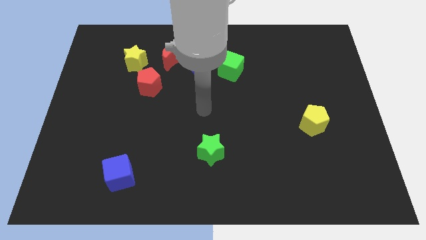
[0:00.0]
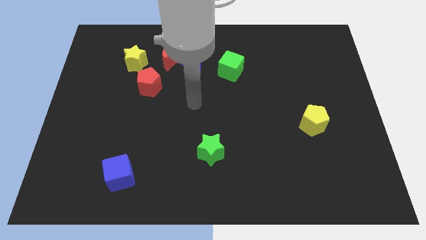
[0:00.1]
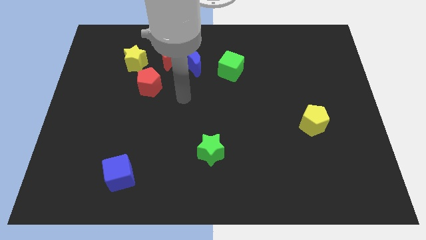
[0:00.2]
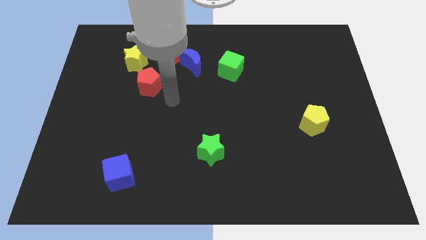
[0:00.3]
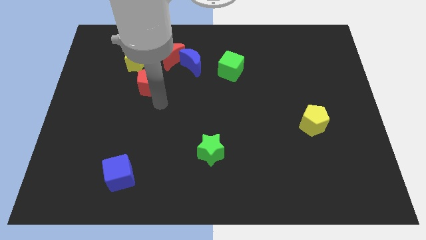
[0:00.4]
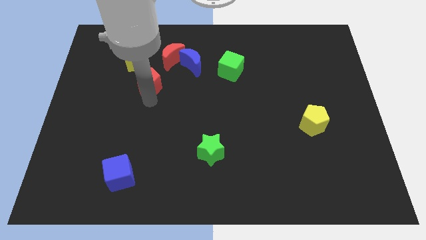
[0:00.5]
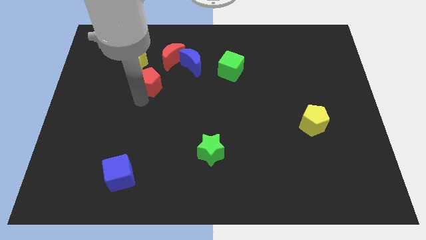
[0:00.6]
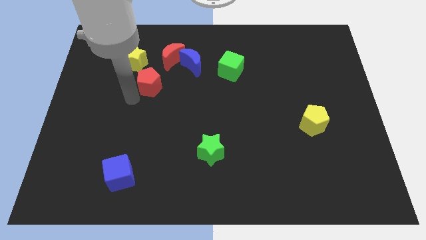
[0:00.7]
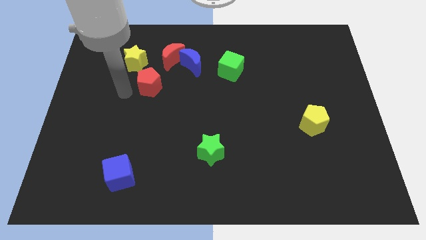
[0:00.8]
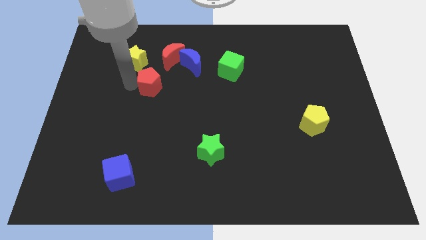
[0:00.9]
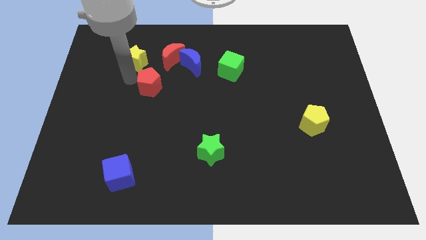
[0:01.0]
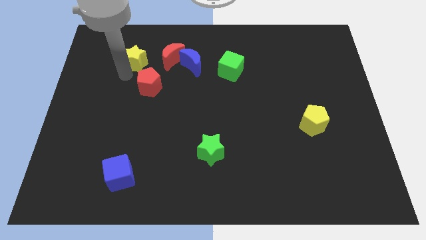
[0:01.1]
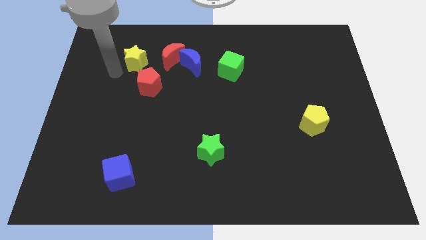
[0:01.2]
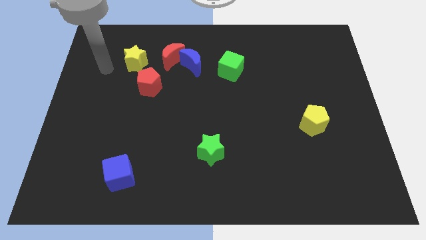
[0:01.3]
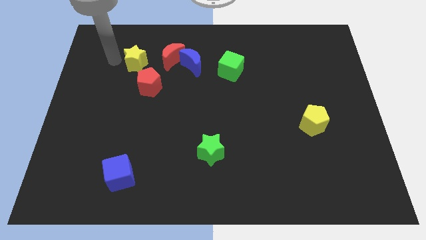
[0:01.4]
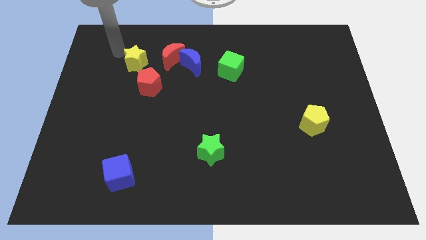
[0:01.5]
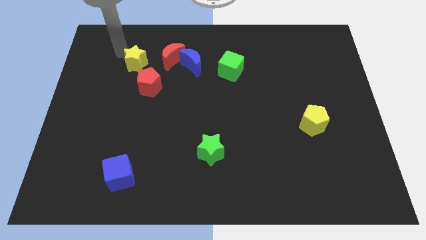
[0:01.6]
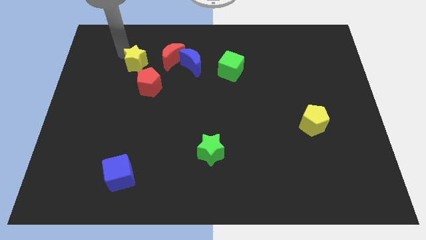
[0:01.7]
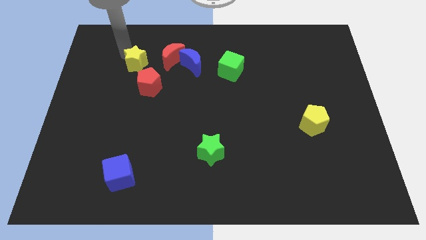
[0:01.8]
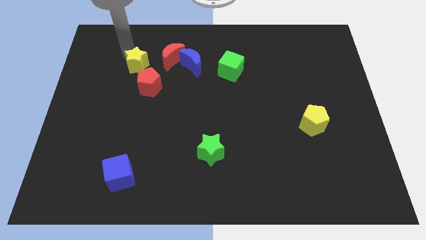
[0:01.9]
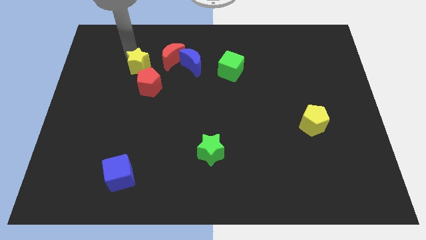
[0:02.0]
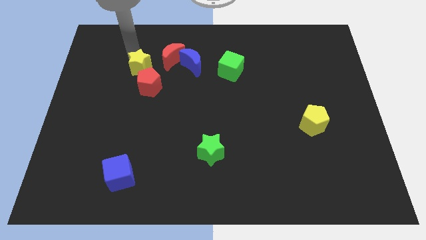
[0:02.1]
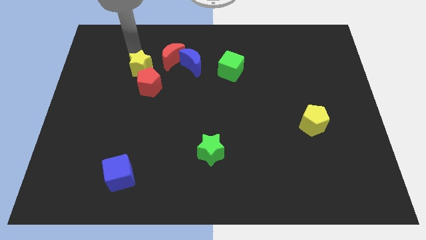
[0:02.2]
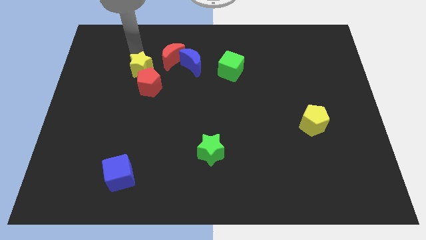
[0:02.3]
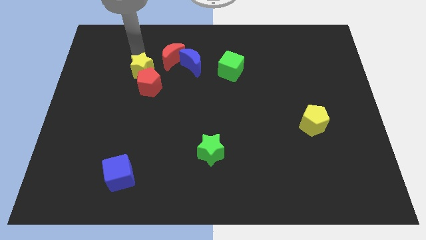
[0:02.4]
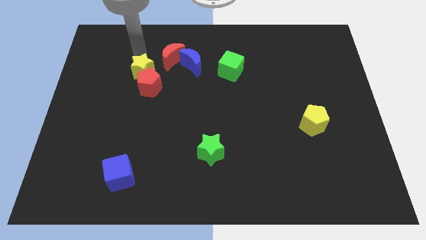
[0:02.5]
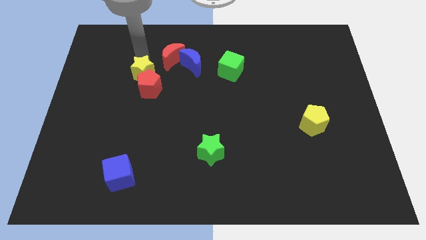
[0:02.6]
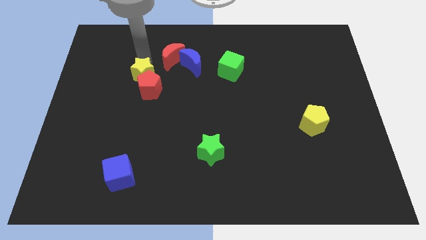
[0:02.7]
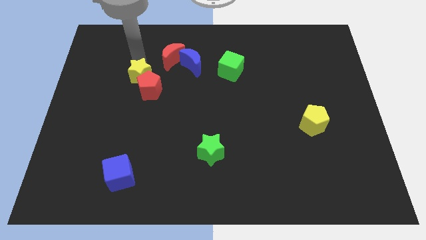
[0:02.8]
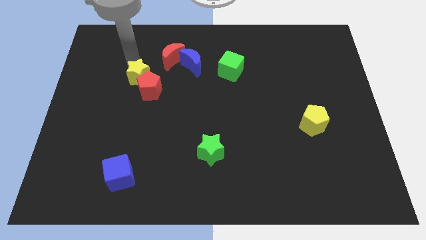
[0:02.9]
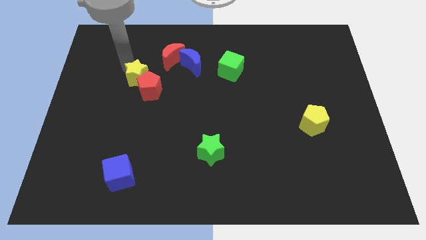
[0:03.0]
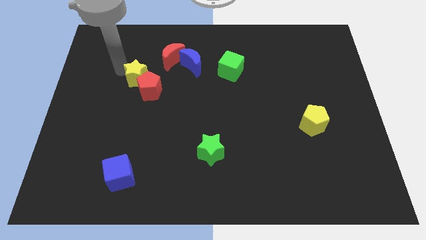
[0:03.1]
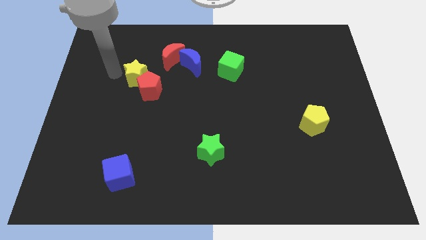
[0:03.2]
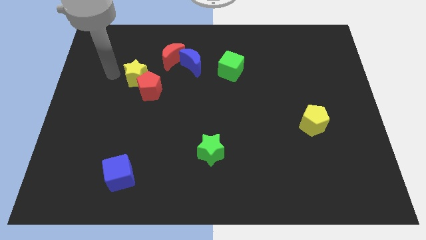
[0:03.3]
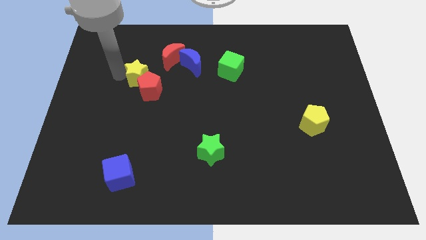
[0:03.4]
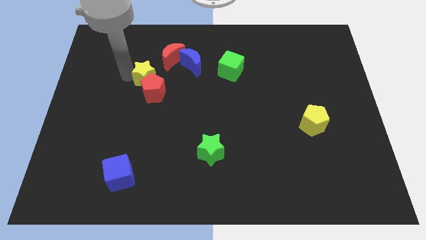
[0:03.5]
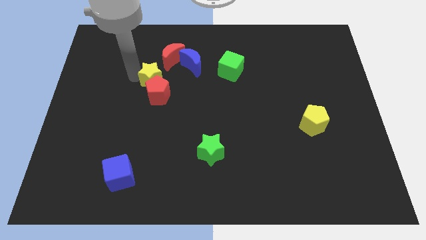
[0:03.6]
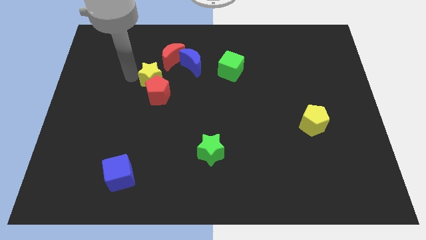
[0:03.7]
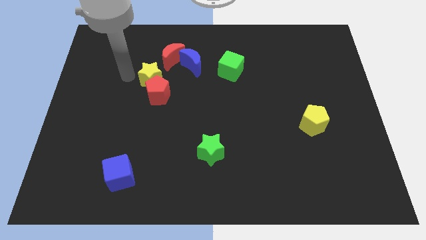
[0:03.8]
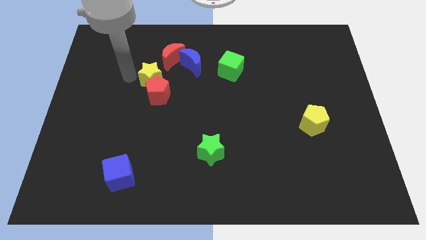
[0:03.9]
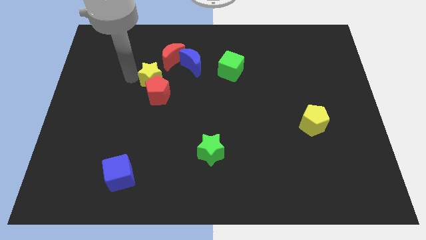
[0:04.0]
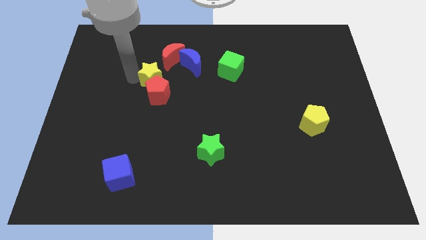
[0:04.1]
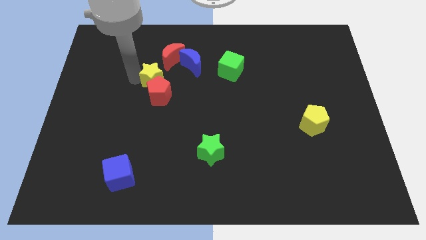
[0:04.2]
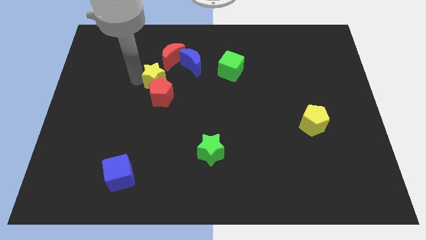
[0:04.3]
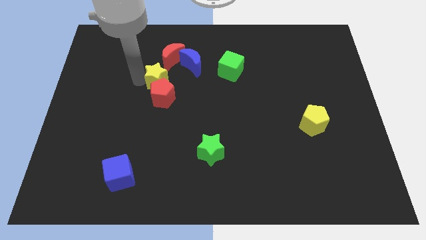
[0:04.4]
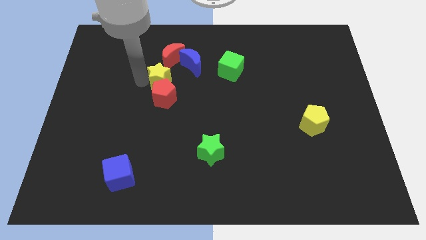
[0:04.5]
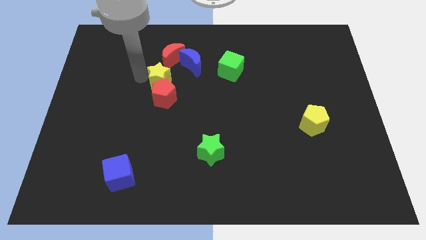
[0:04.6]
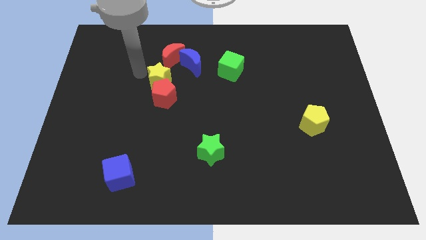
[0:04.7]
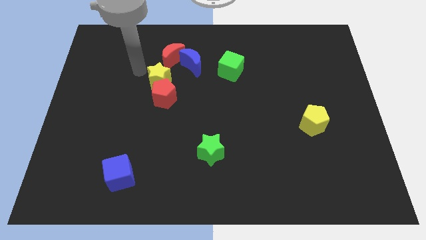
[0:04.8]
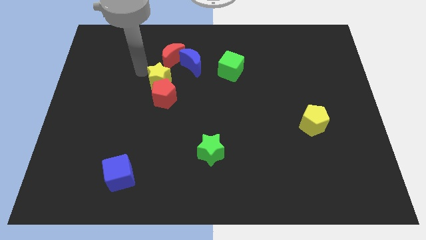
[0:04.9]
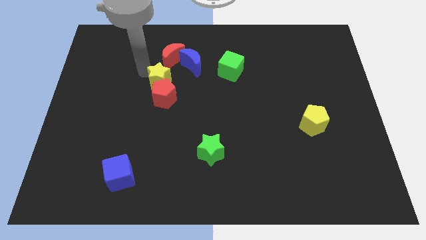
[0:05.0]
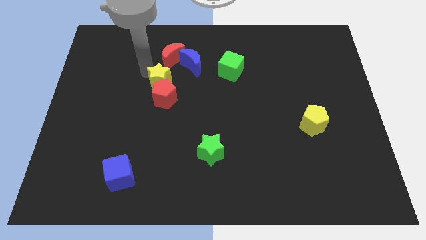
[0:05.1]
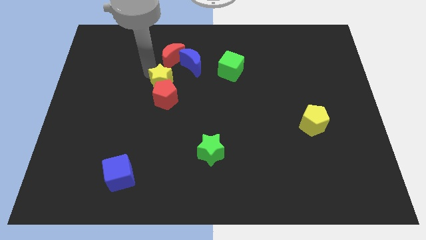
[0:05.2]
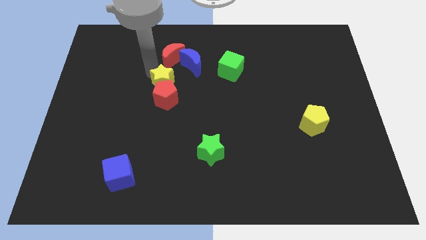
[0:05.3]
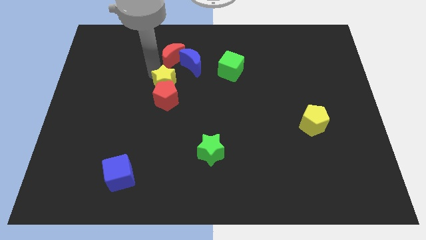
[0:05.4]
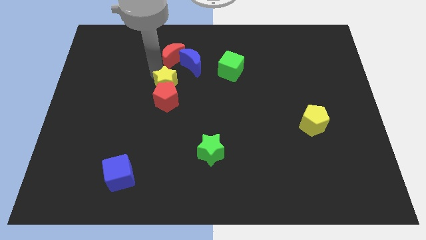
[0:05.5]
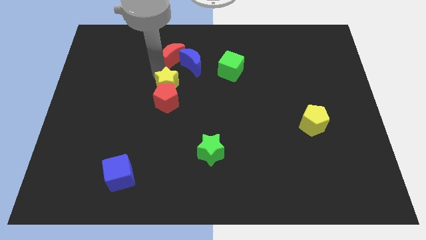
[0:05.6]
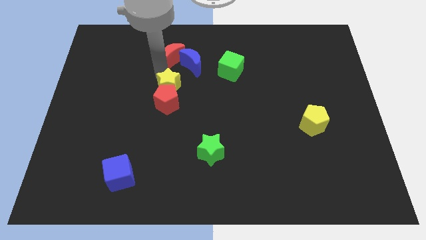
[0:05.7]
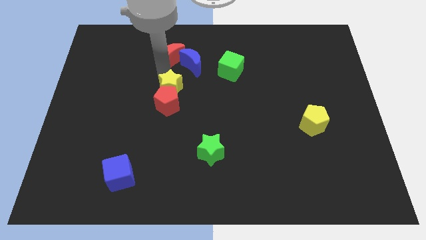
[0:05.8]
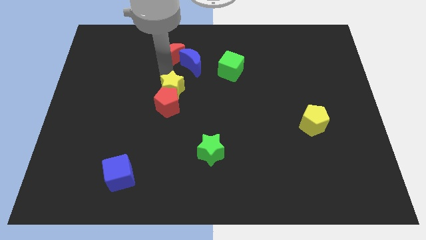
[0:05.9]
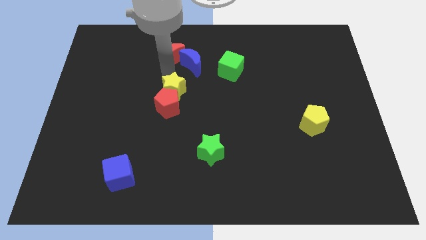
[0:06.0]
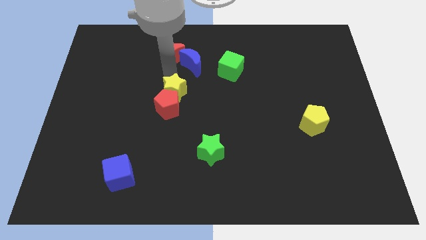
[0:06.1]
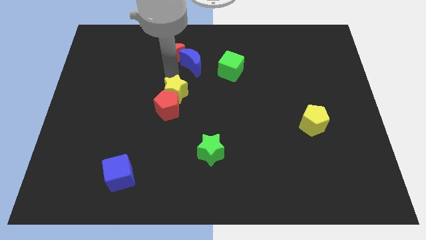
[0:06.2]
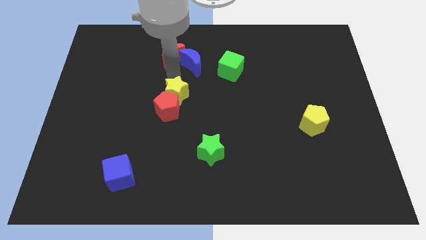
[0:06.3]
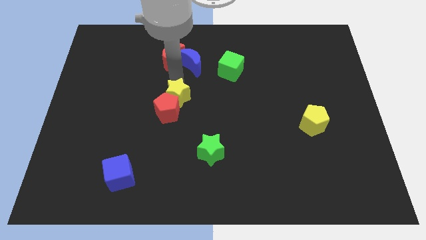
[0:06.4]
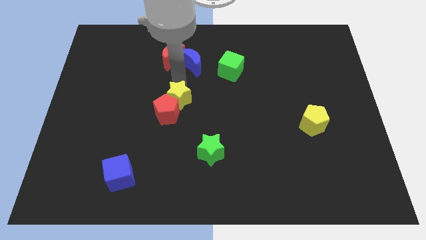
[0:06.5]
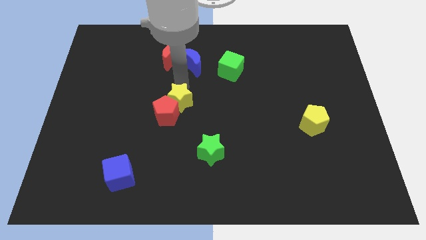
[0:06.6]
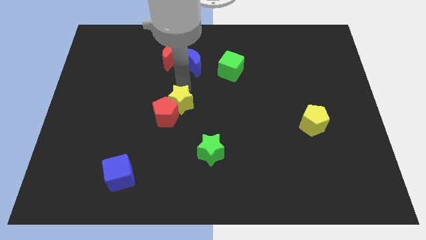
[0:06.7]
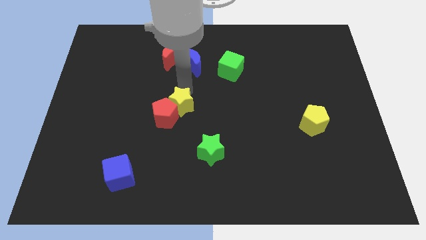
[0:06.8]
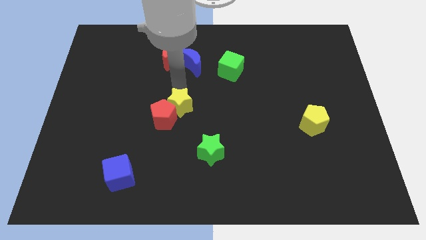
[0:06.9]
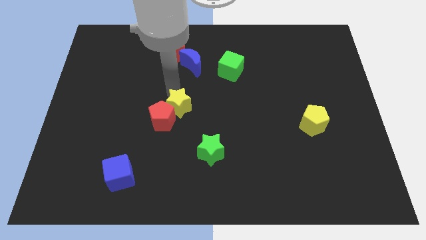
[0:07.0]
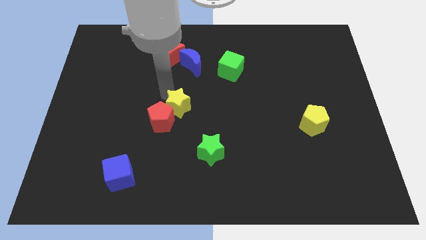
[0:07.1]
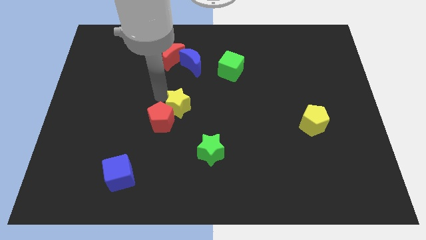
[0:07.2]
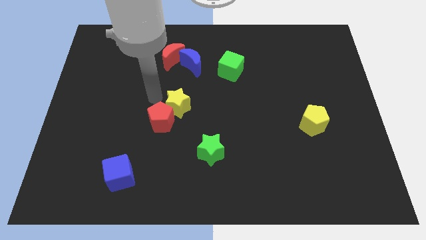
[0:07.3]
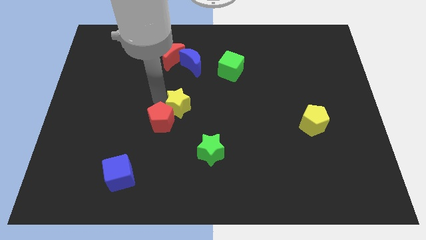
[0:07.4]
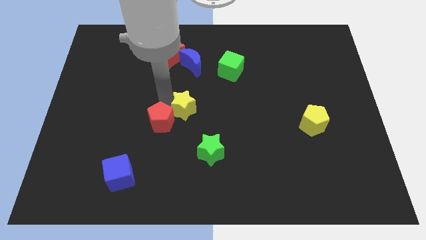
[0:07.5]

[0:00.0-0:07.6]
slide the yellow star diagonally downwards and right

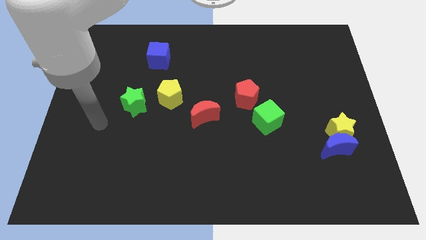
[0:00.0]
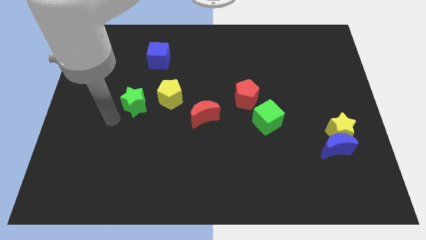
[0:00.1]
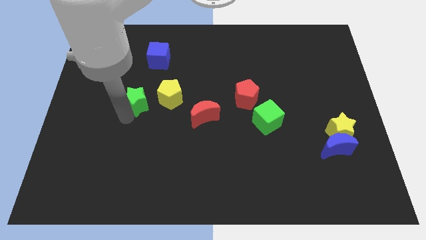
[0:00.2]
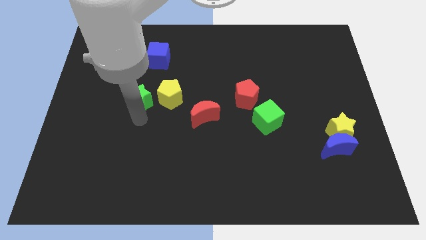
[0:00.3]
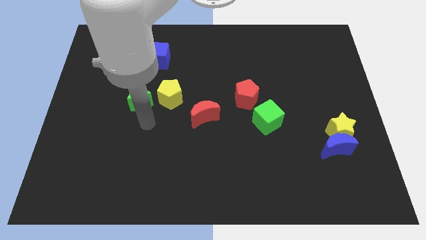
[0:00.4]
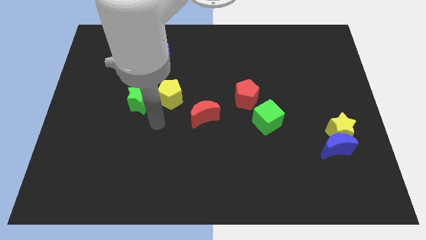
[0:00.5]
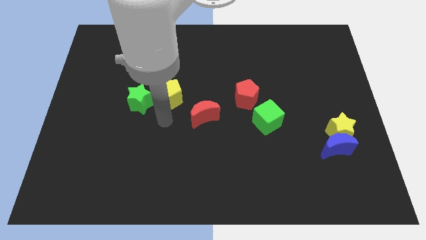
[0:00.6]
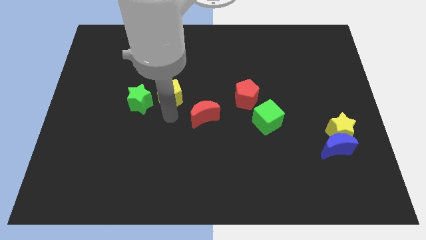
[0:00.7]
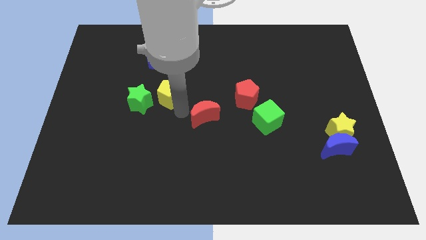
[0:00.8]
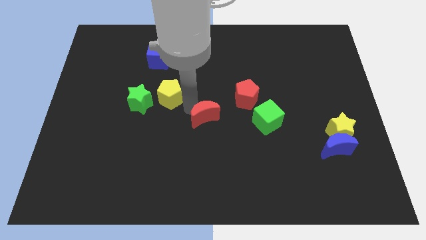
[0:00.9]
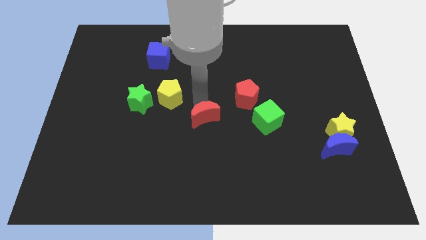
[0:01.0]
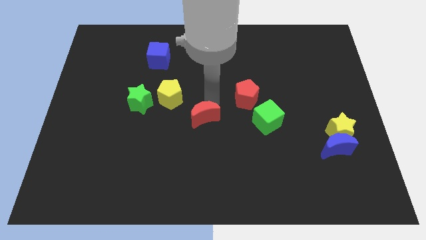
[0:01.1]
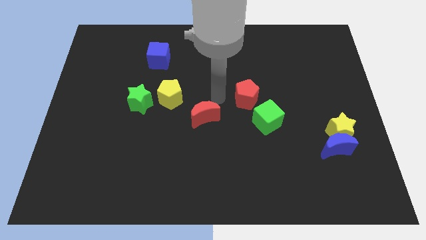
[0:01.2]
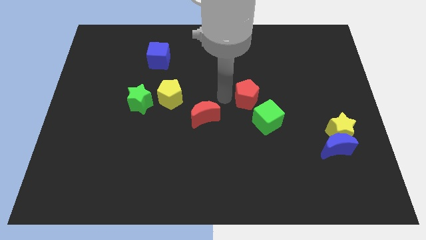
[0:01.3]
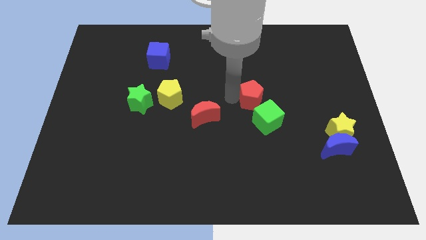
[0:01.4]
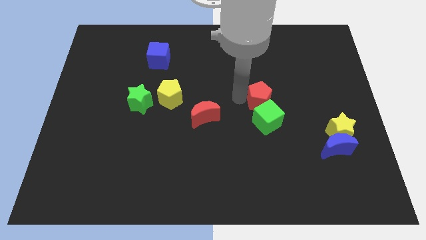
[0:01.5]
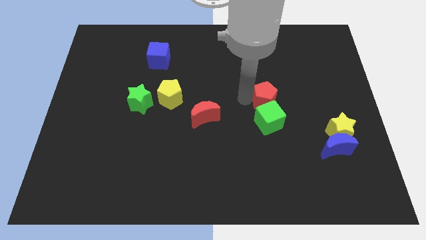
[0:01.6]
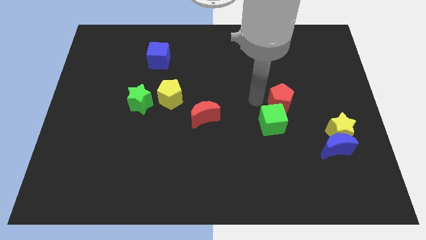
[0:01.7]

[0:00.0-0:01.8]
push the red pentagon right slightly
